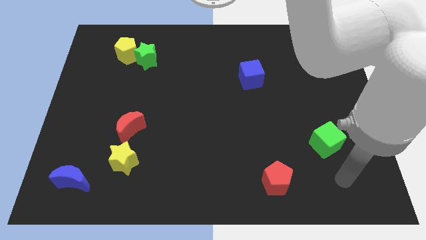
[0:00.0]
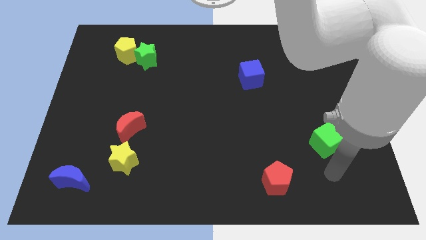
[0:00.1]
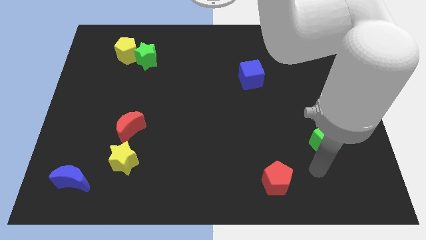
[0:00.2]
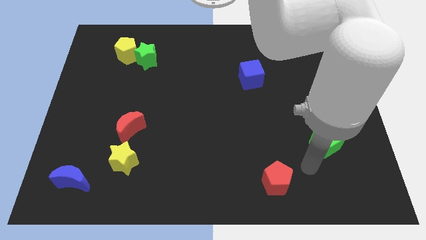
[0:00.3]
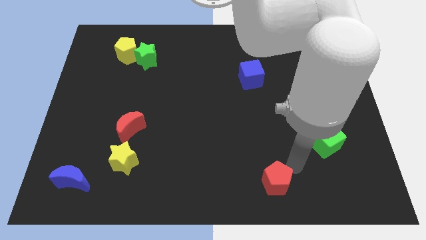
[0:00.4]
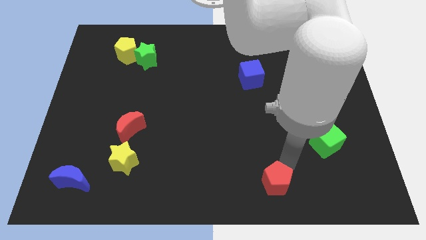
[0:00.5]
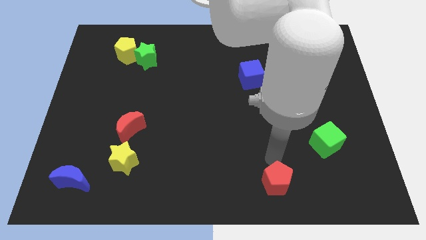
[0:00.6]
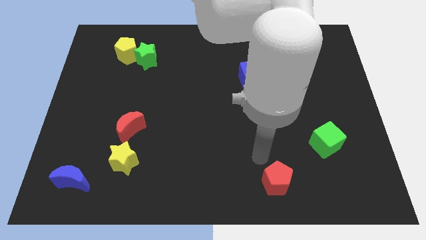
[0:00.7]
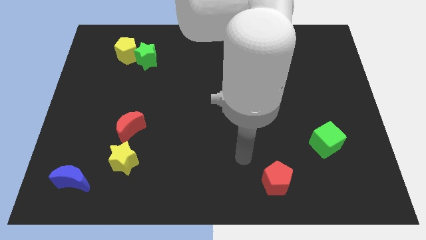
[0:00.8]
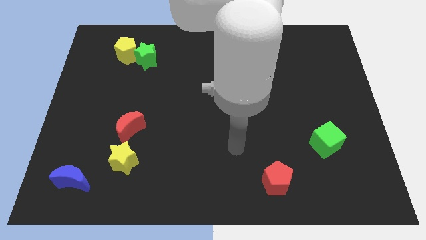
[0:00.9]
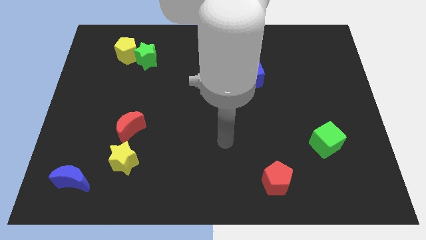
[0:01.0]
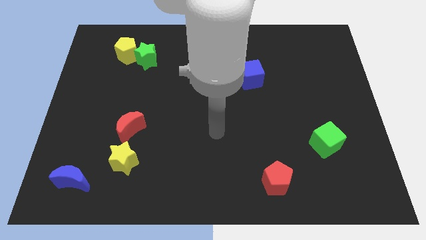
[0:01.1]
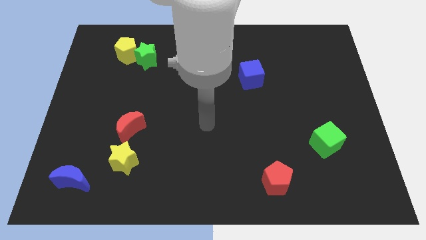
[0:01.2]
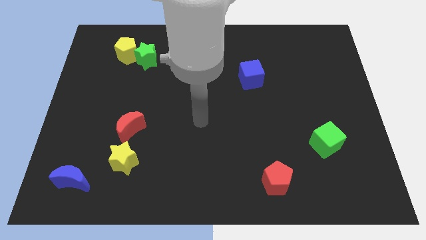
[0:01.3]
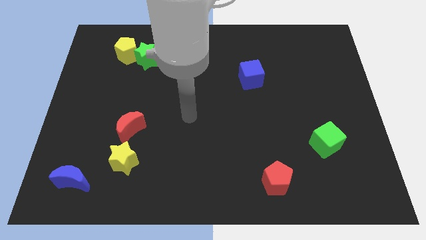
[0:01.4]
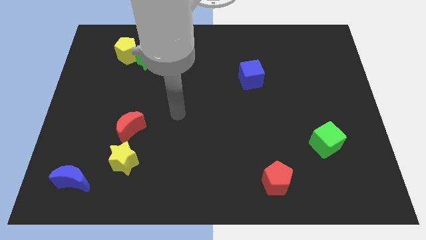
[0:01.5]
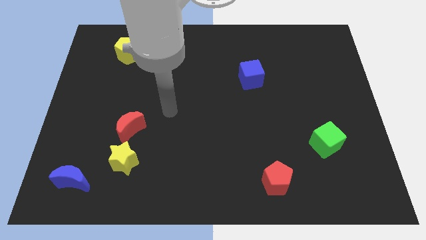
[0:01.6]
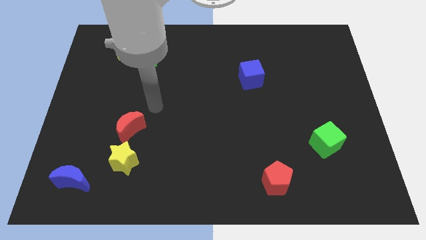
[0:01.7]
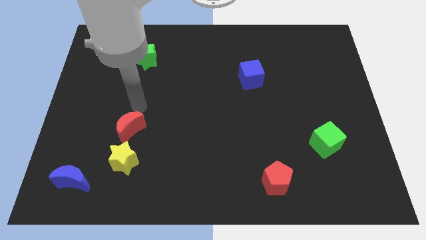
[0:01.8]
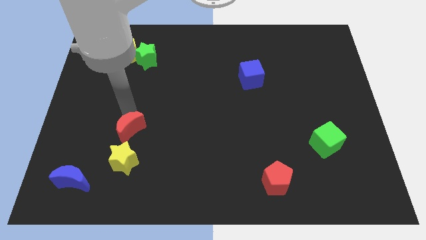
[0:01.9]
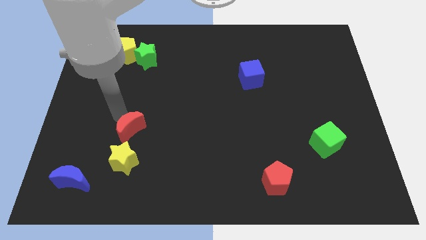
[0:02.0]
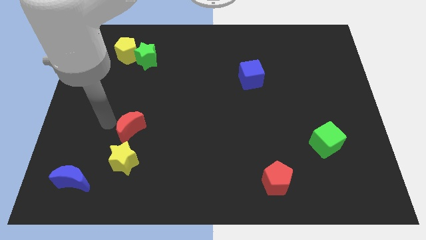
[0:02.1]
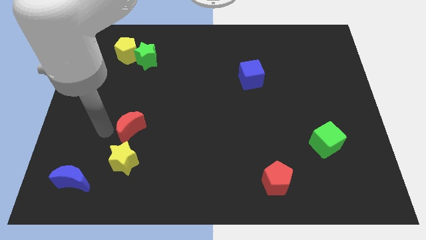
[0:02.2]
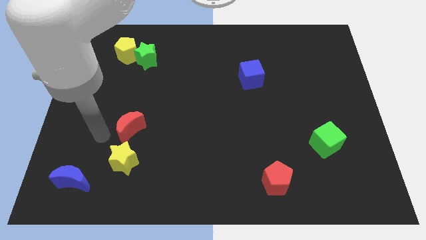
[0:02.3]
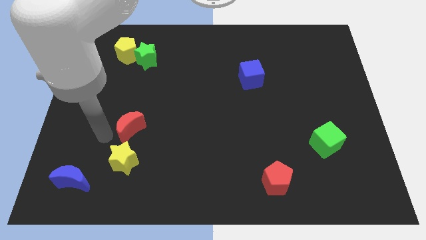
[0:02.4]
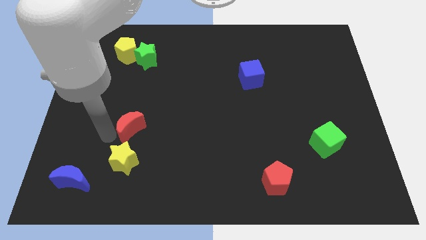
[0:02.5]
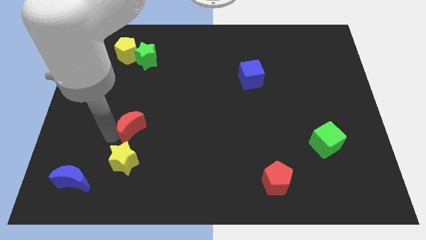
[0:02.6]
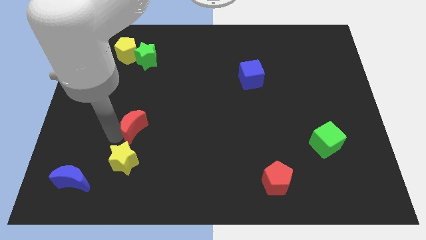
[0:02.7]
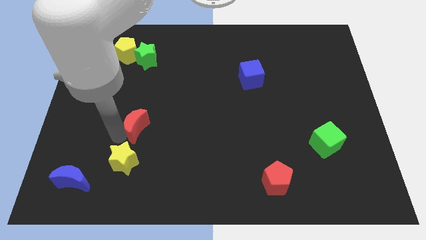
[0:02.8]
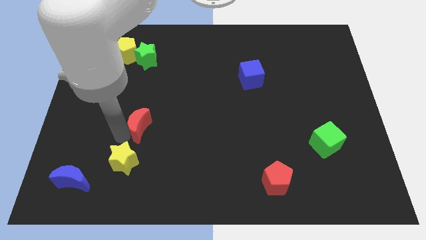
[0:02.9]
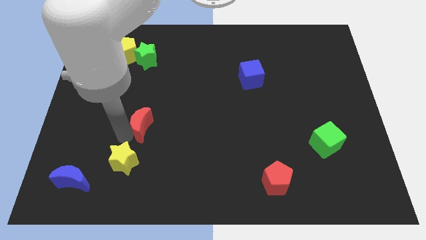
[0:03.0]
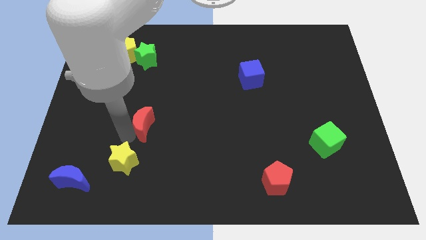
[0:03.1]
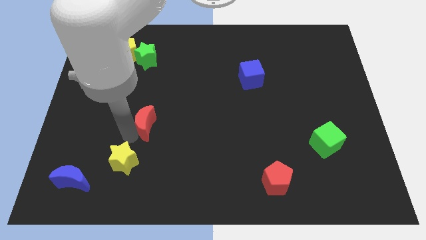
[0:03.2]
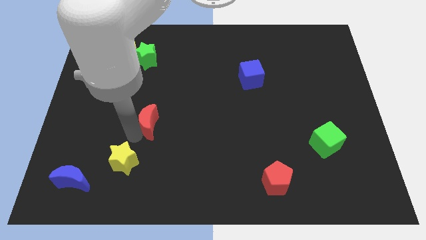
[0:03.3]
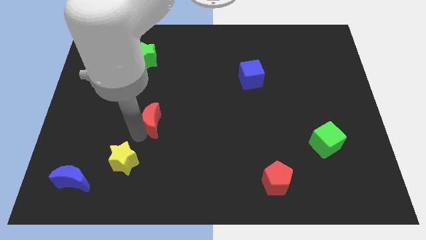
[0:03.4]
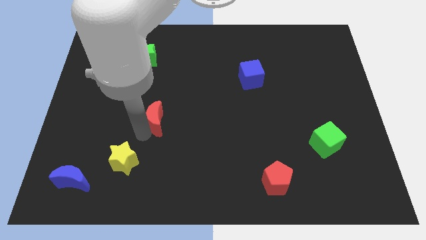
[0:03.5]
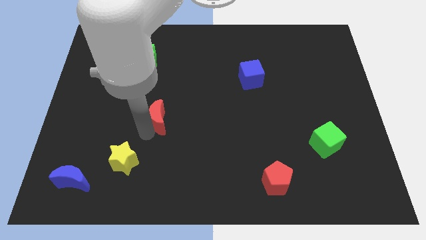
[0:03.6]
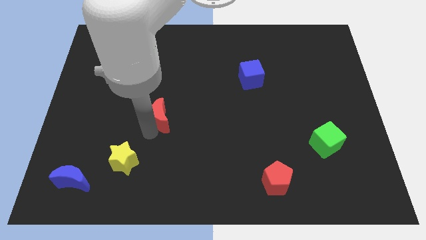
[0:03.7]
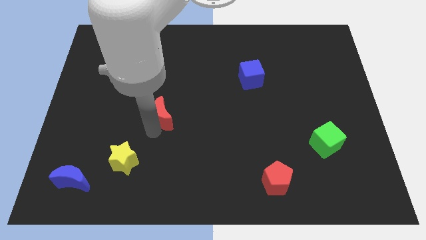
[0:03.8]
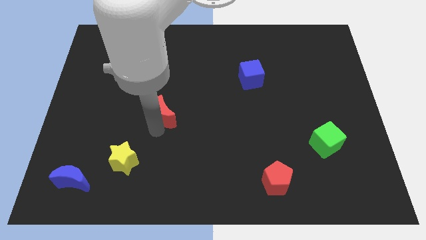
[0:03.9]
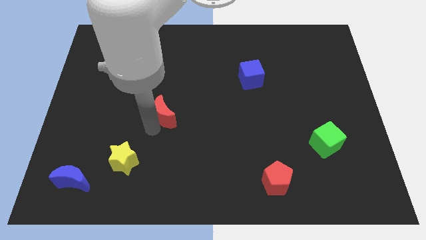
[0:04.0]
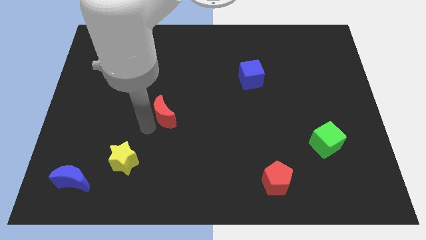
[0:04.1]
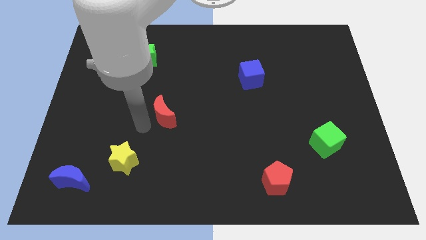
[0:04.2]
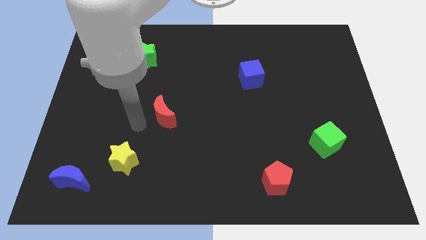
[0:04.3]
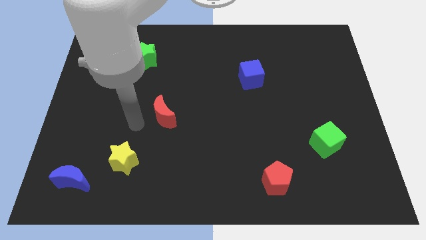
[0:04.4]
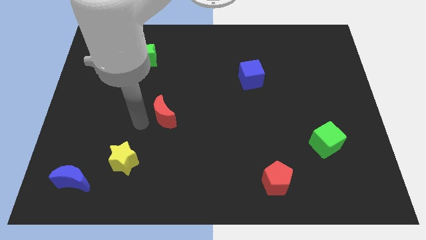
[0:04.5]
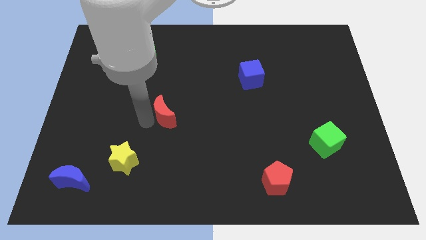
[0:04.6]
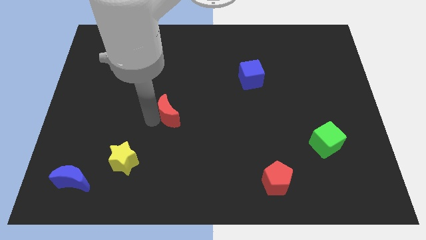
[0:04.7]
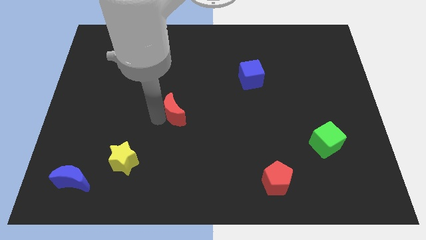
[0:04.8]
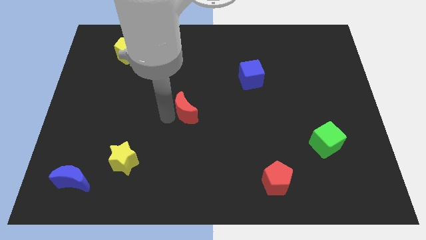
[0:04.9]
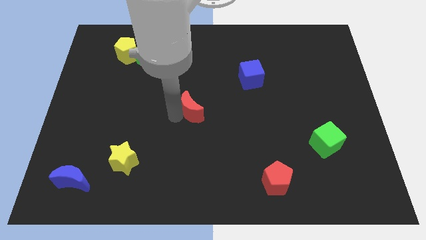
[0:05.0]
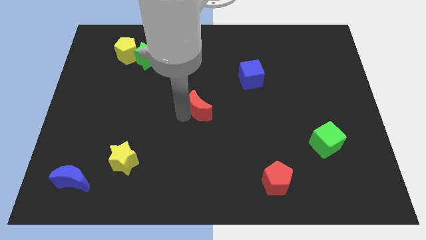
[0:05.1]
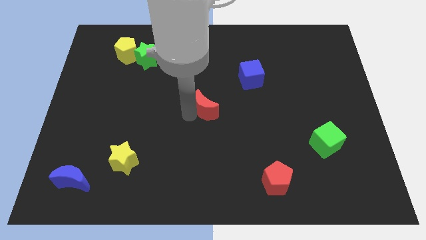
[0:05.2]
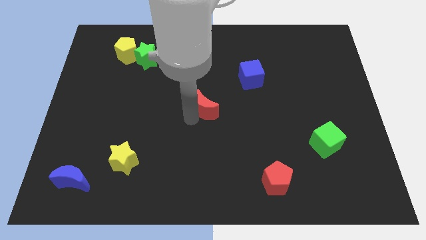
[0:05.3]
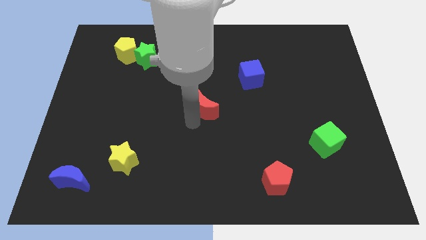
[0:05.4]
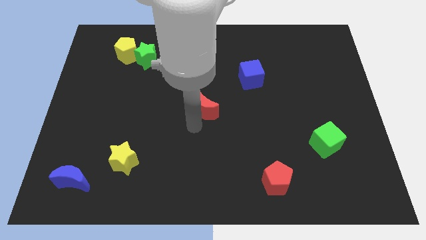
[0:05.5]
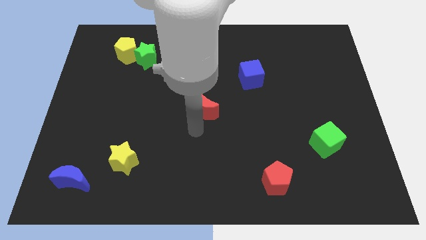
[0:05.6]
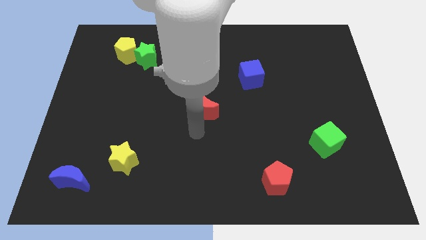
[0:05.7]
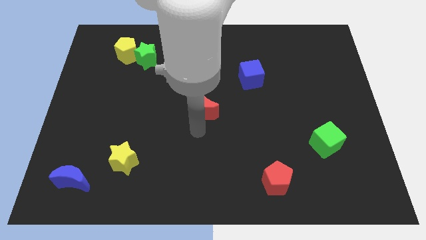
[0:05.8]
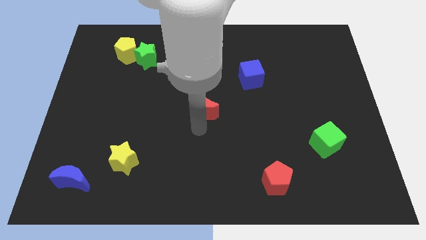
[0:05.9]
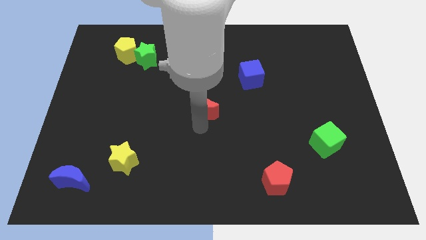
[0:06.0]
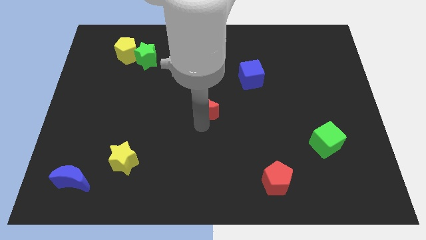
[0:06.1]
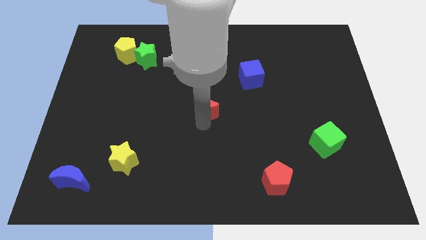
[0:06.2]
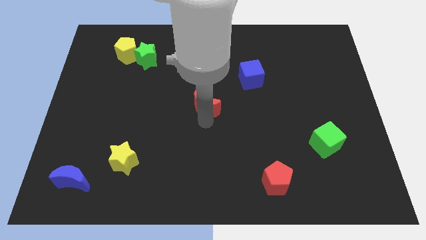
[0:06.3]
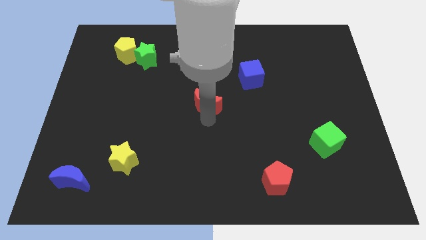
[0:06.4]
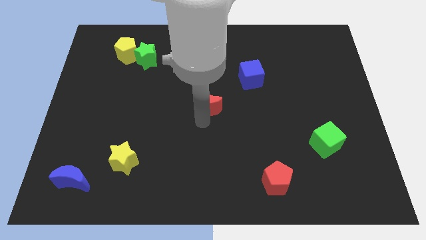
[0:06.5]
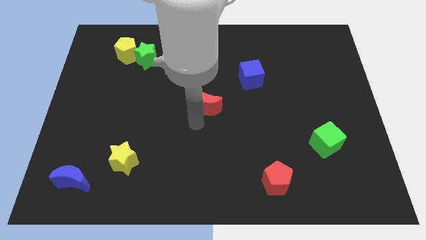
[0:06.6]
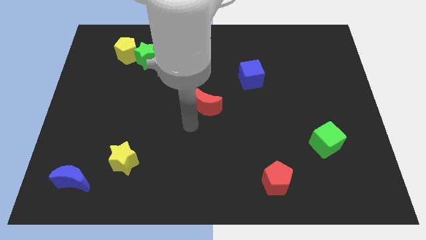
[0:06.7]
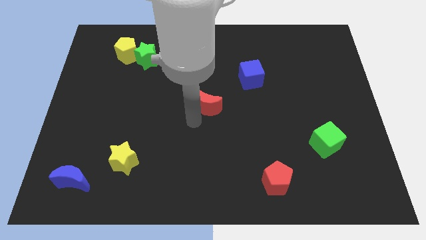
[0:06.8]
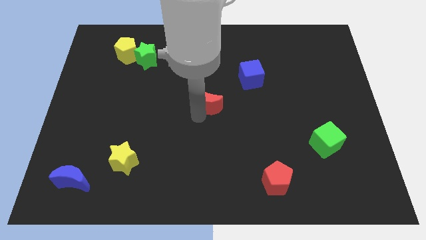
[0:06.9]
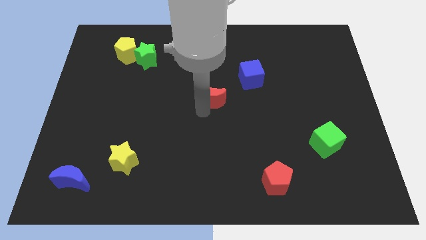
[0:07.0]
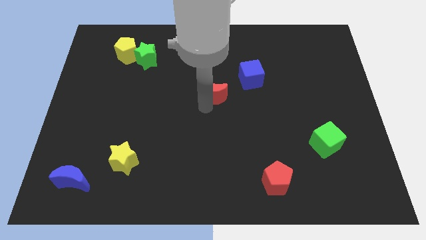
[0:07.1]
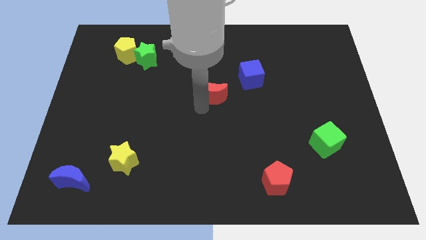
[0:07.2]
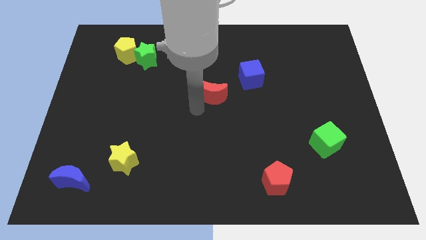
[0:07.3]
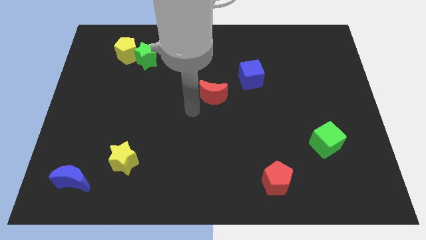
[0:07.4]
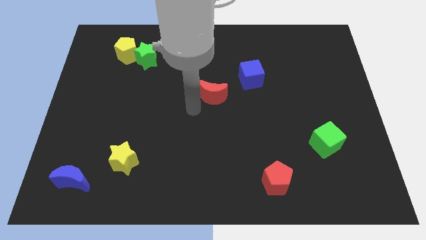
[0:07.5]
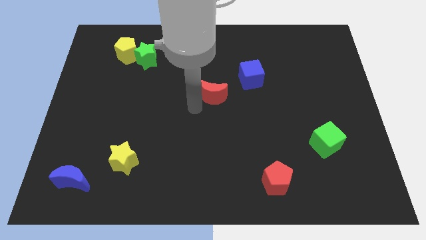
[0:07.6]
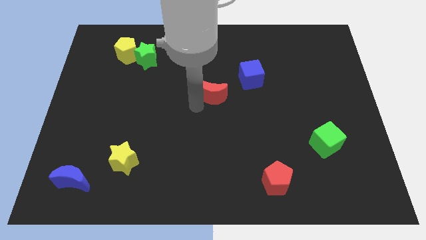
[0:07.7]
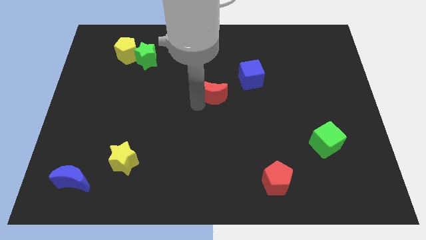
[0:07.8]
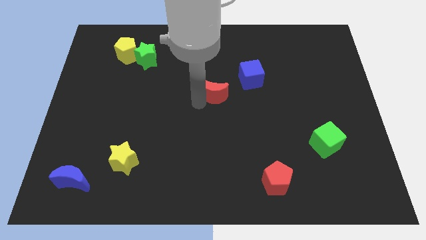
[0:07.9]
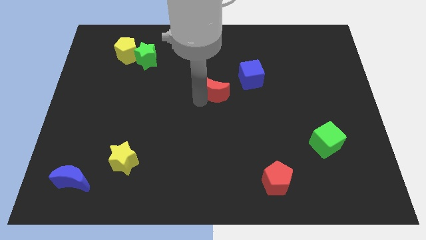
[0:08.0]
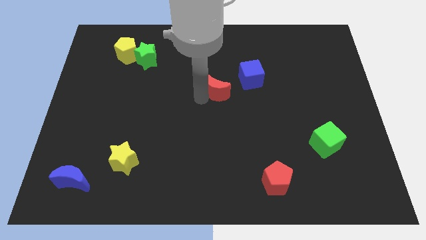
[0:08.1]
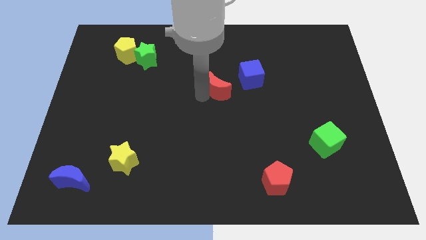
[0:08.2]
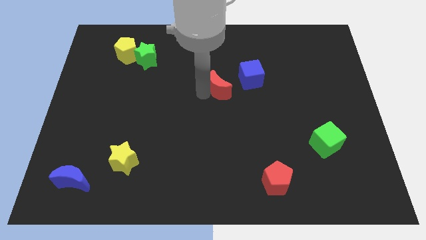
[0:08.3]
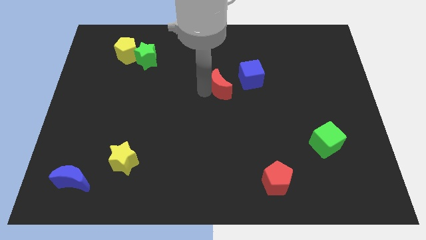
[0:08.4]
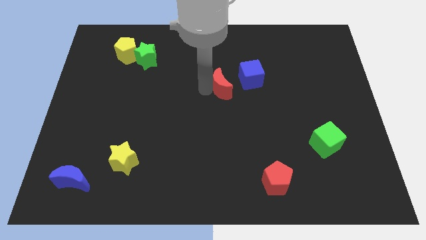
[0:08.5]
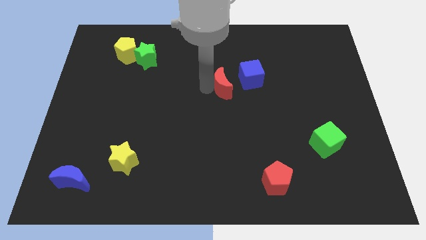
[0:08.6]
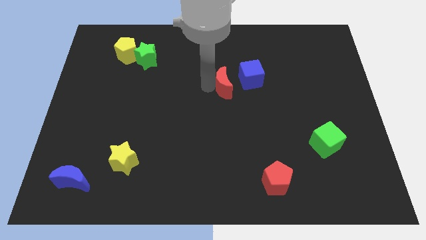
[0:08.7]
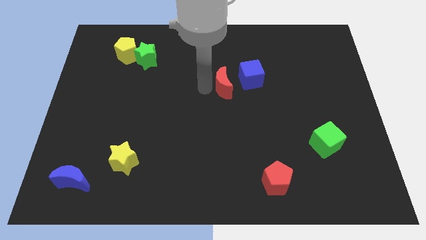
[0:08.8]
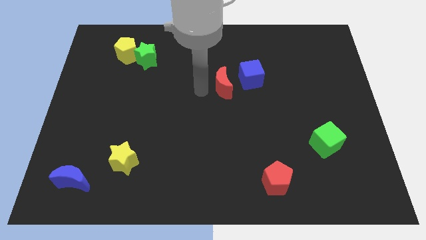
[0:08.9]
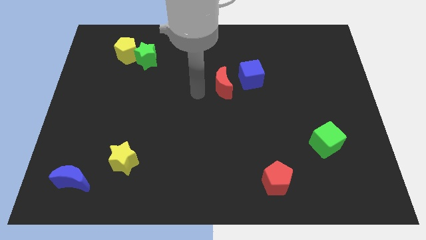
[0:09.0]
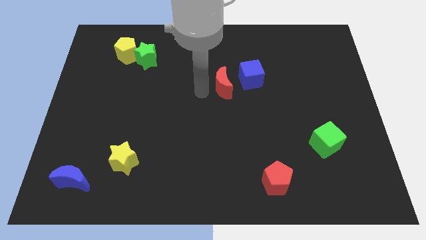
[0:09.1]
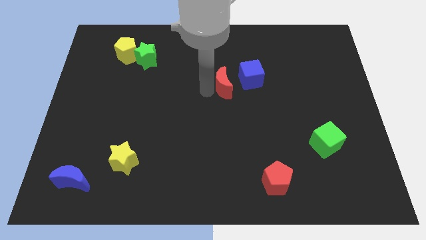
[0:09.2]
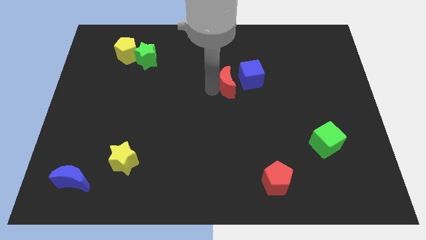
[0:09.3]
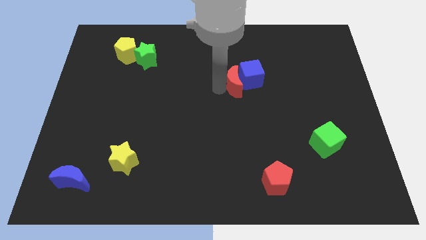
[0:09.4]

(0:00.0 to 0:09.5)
slide the red moon close to the blue cube
